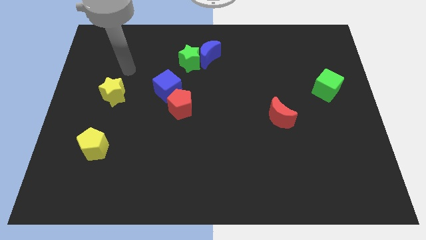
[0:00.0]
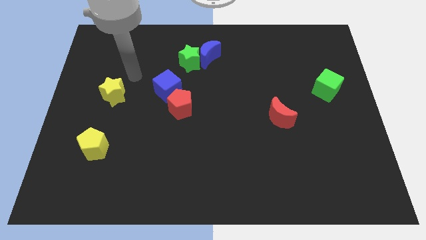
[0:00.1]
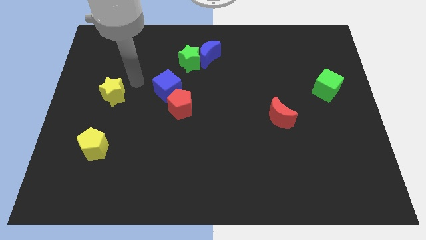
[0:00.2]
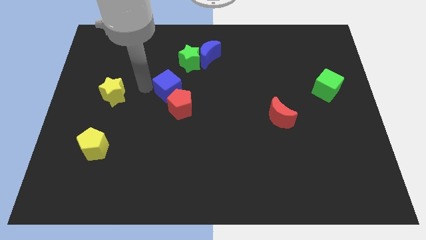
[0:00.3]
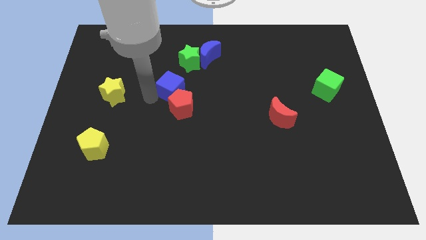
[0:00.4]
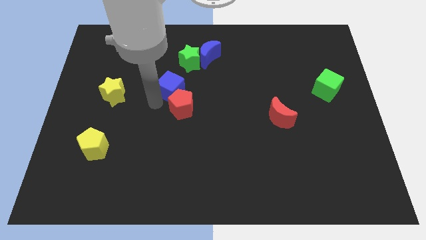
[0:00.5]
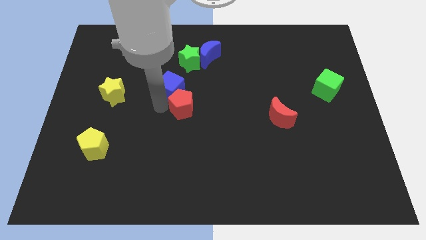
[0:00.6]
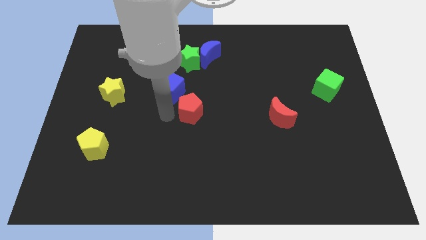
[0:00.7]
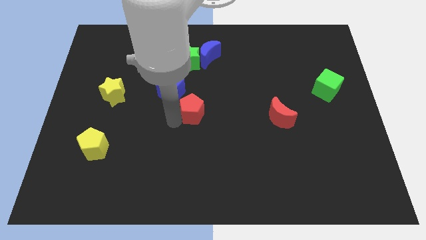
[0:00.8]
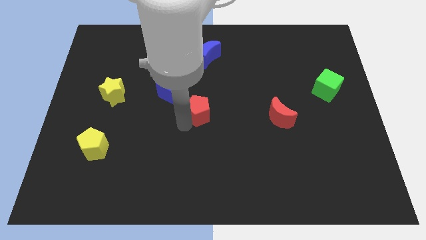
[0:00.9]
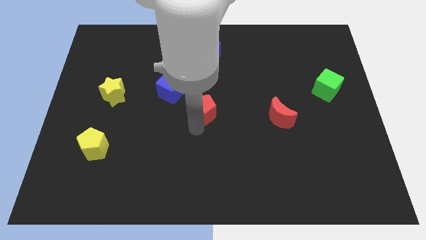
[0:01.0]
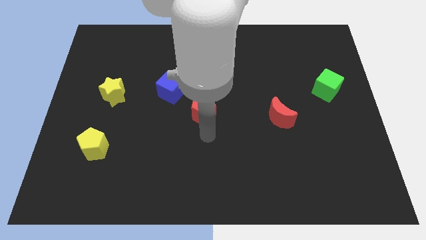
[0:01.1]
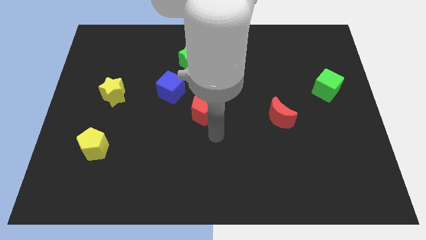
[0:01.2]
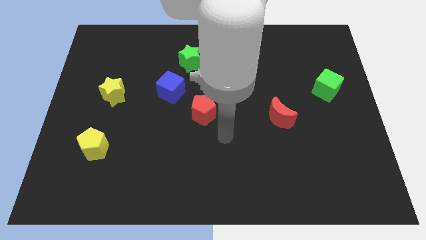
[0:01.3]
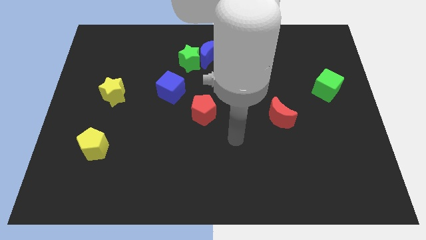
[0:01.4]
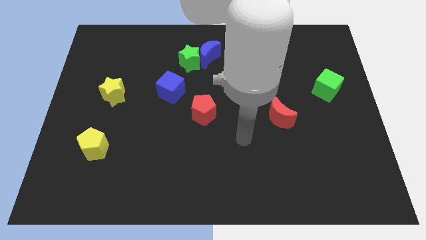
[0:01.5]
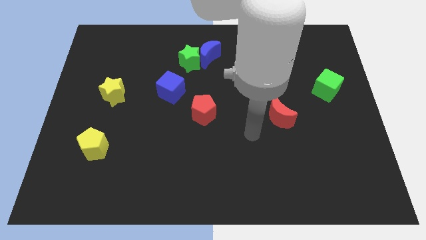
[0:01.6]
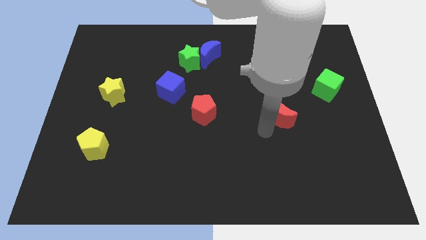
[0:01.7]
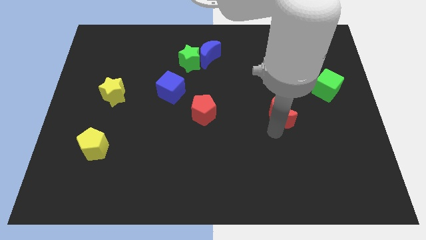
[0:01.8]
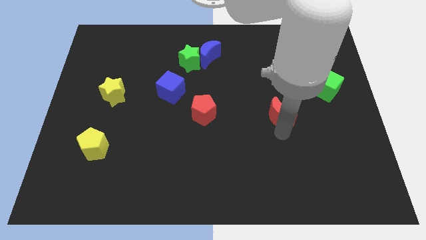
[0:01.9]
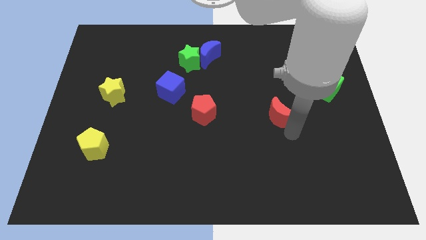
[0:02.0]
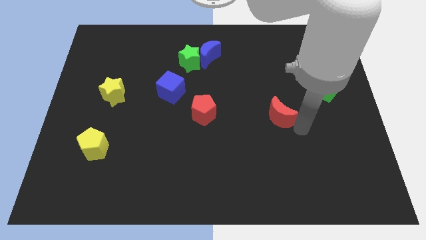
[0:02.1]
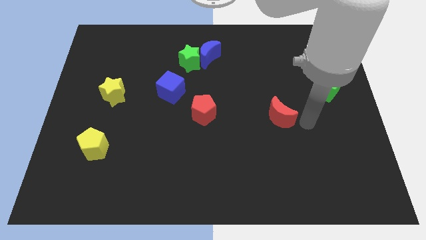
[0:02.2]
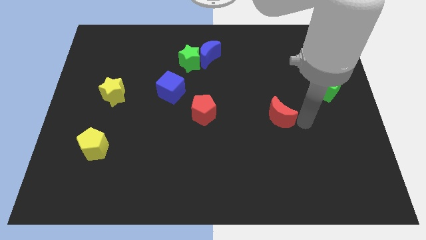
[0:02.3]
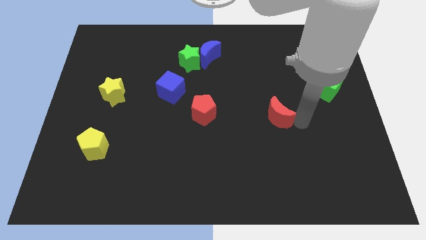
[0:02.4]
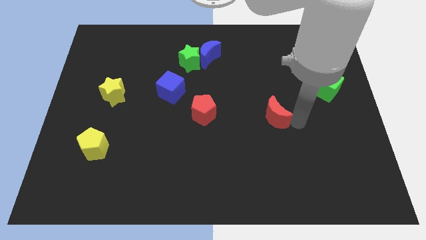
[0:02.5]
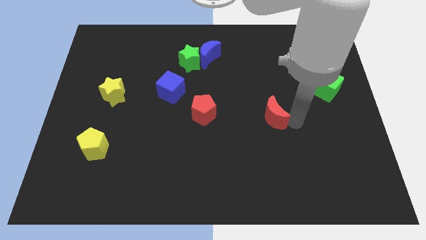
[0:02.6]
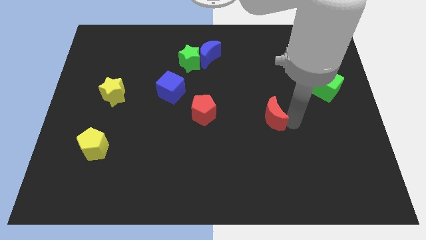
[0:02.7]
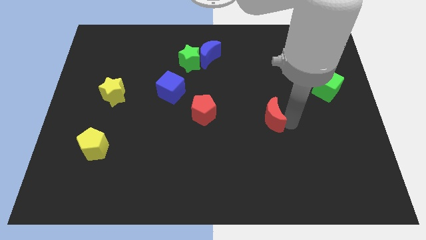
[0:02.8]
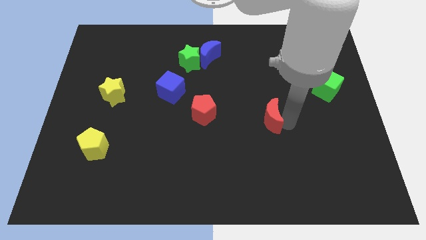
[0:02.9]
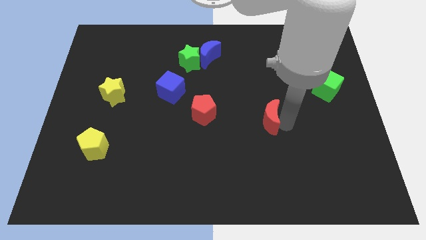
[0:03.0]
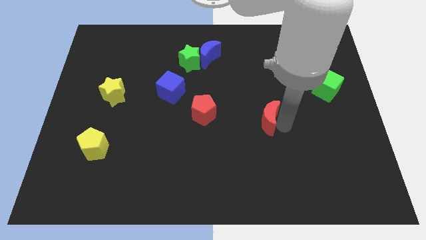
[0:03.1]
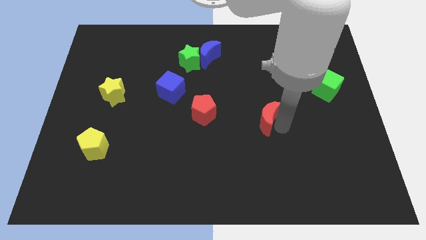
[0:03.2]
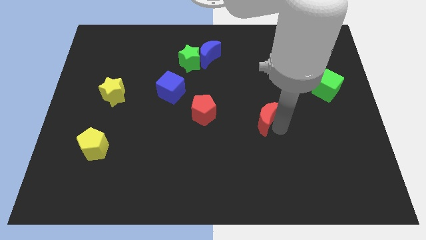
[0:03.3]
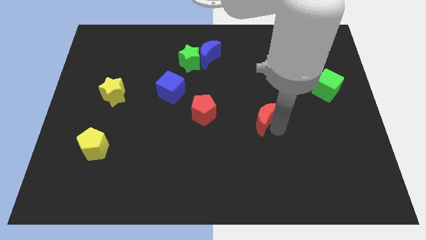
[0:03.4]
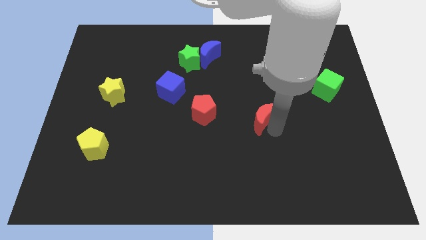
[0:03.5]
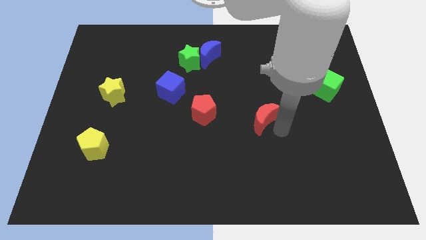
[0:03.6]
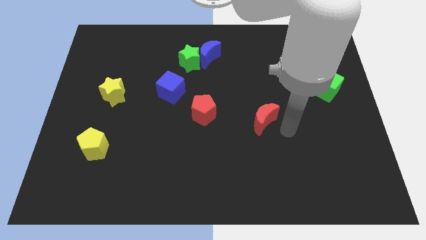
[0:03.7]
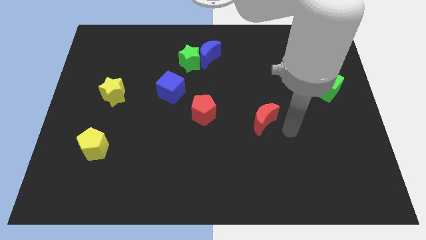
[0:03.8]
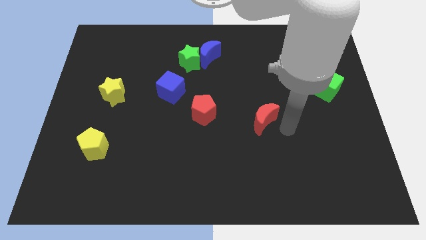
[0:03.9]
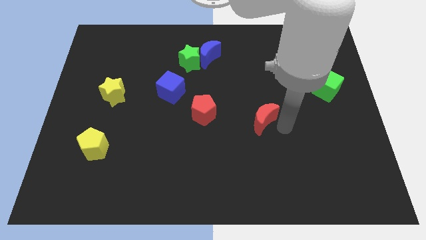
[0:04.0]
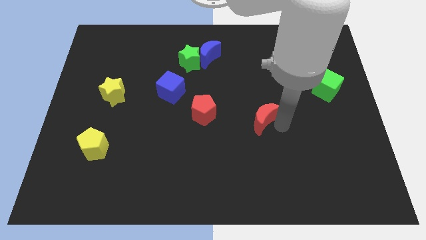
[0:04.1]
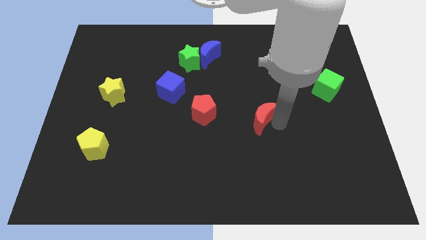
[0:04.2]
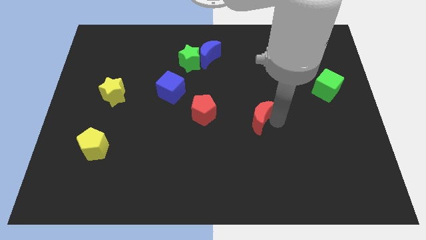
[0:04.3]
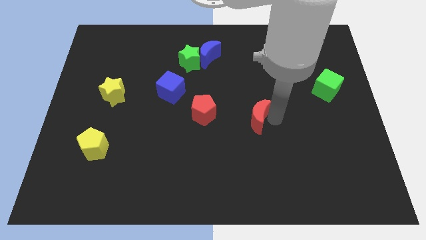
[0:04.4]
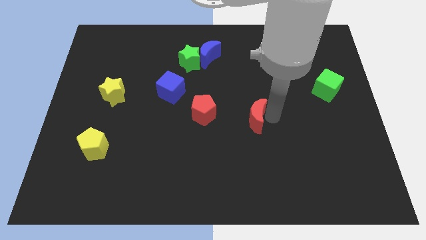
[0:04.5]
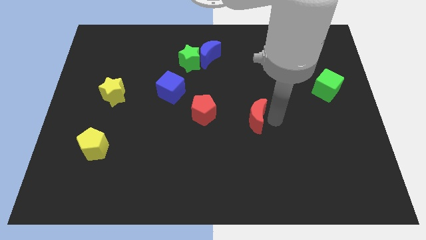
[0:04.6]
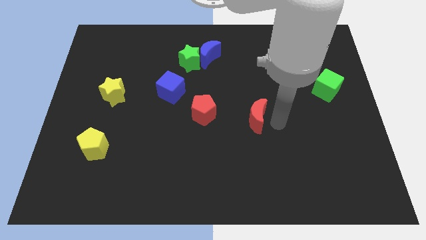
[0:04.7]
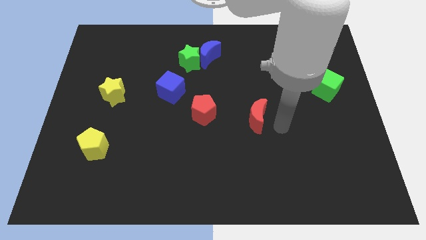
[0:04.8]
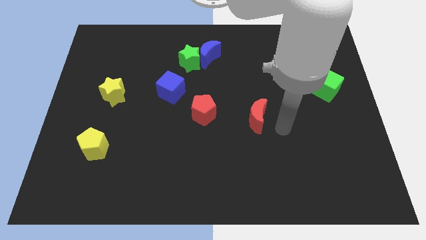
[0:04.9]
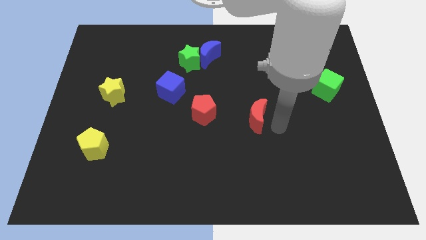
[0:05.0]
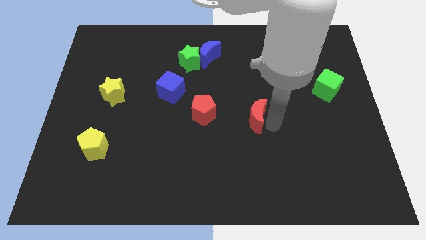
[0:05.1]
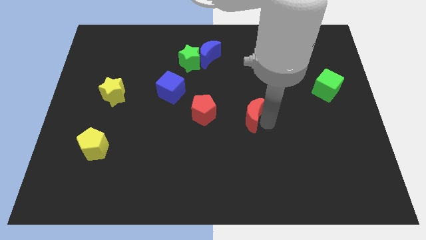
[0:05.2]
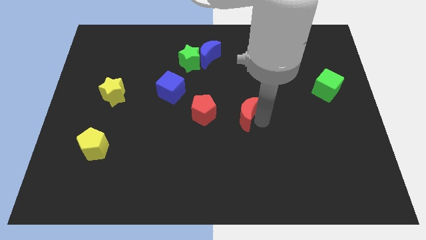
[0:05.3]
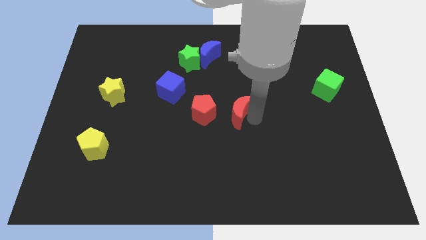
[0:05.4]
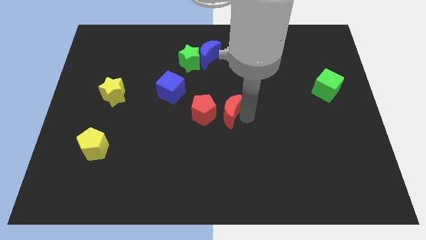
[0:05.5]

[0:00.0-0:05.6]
put the red moon close to the red pentagon

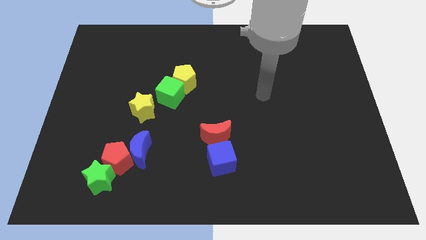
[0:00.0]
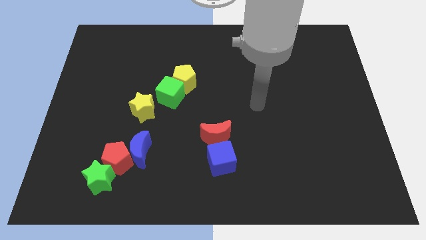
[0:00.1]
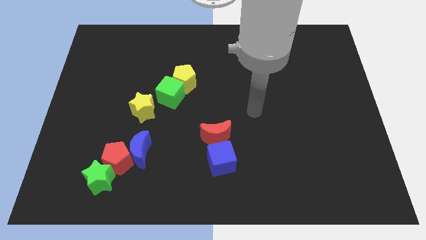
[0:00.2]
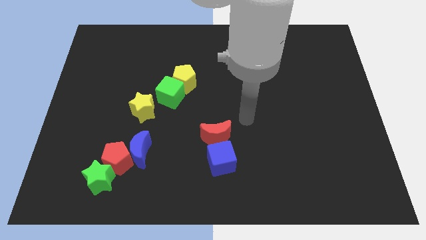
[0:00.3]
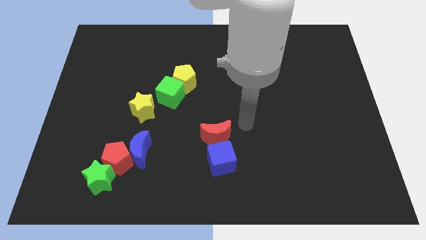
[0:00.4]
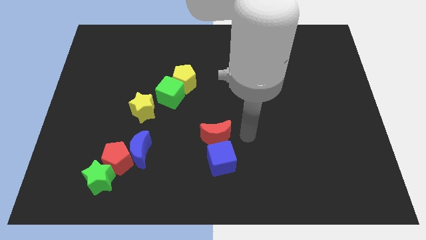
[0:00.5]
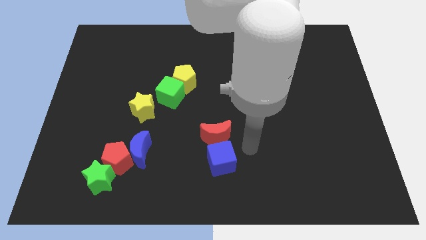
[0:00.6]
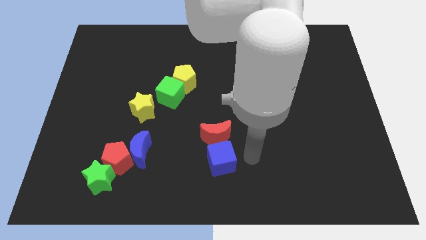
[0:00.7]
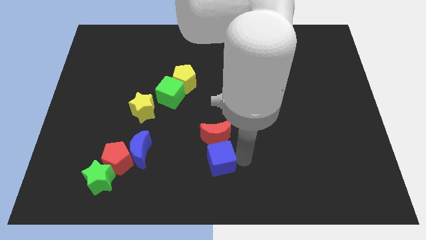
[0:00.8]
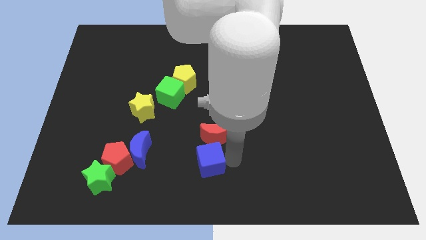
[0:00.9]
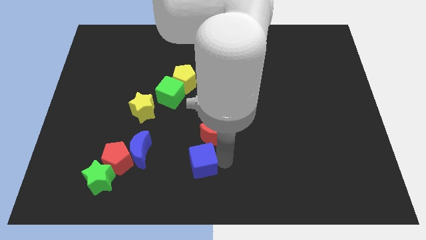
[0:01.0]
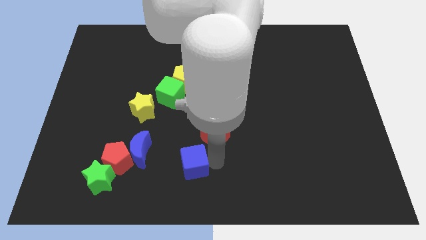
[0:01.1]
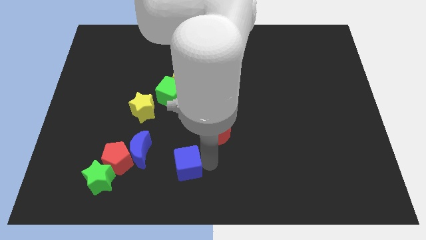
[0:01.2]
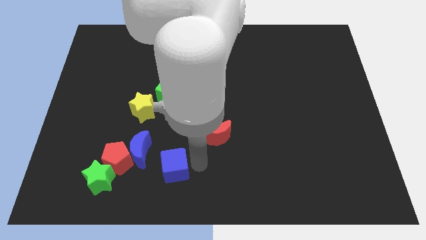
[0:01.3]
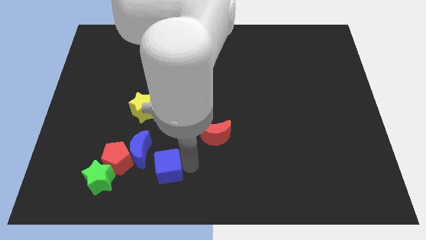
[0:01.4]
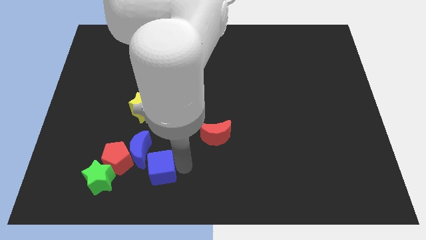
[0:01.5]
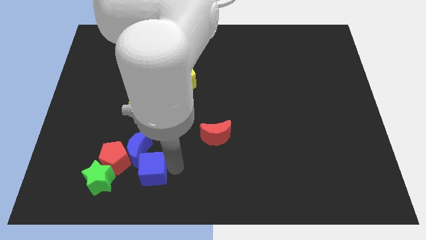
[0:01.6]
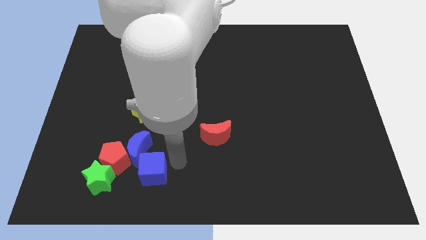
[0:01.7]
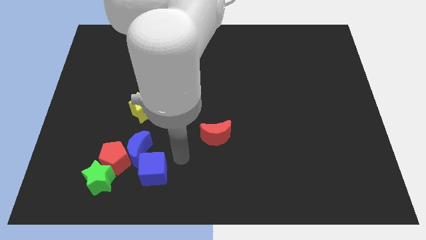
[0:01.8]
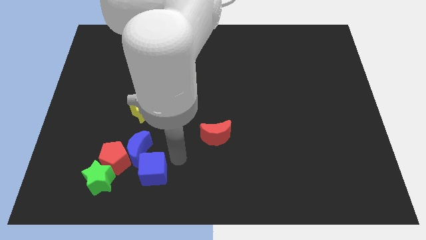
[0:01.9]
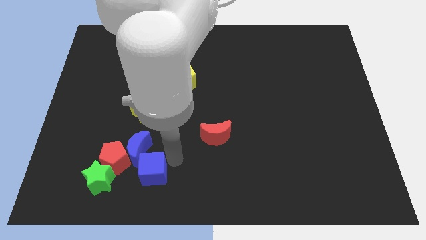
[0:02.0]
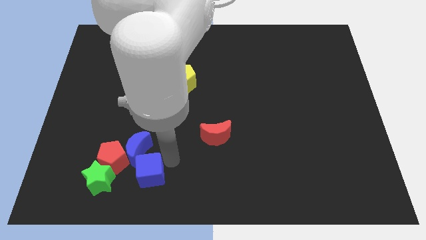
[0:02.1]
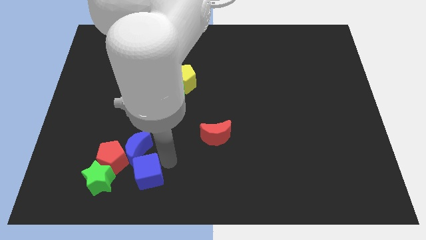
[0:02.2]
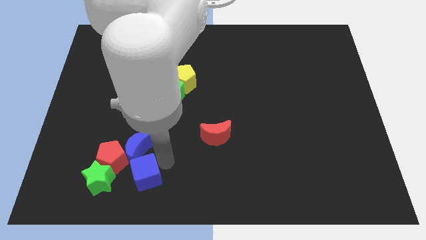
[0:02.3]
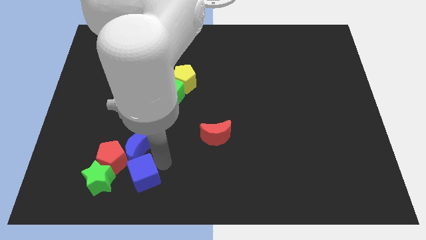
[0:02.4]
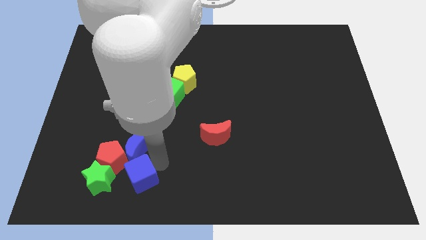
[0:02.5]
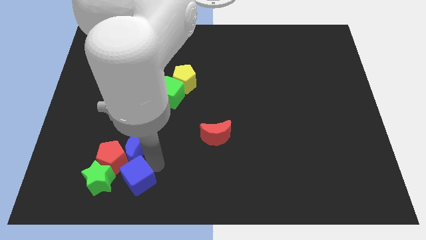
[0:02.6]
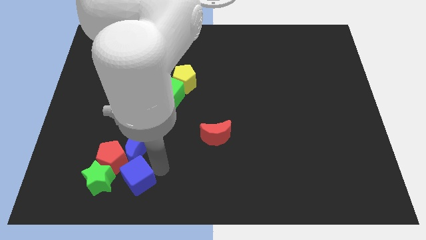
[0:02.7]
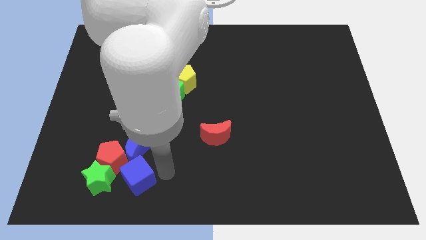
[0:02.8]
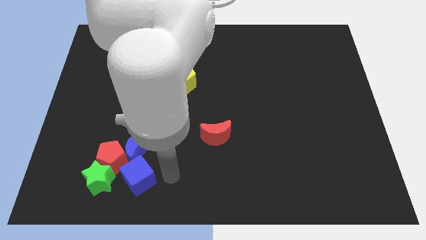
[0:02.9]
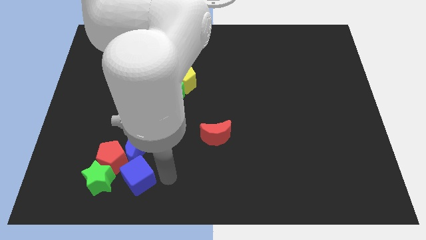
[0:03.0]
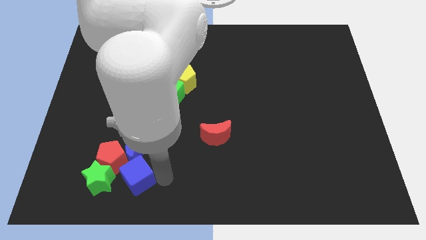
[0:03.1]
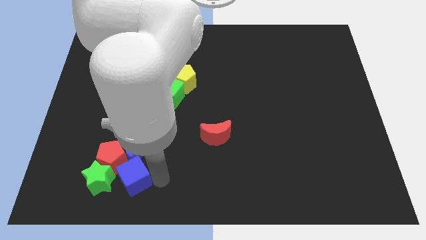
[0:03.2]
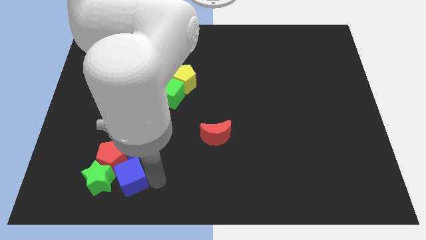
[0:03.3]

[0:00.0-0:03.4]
move the blue cube next to the green star
